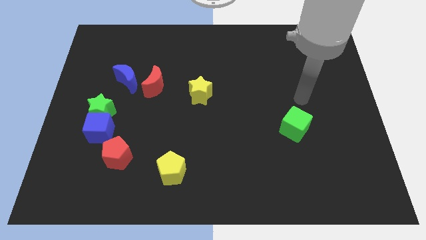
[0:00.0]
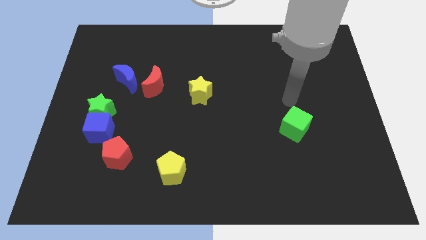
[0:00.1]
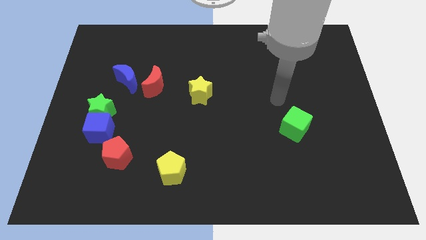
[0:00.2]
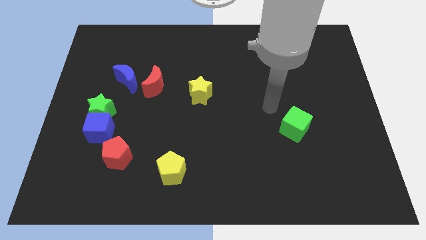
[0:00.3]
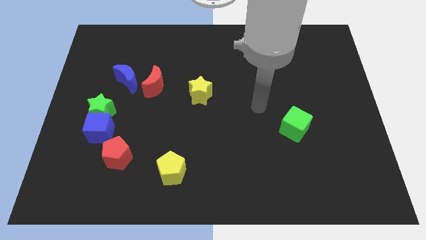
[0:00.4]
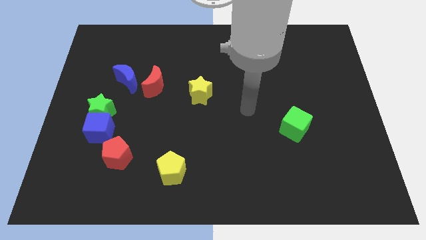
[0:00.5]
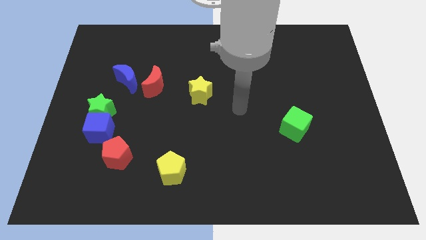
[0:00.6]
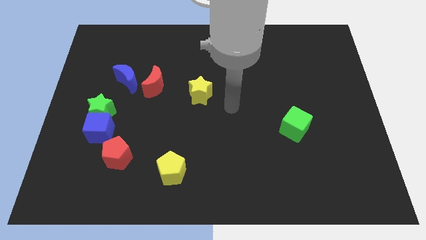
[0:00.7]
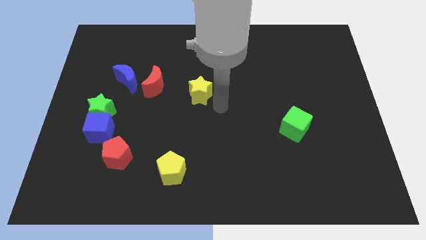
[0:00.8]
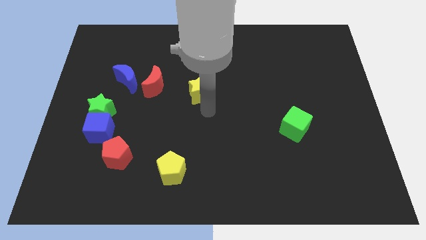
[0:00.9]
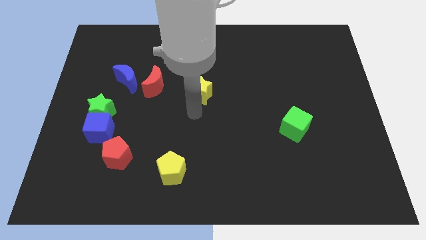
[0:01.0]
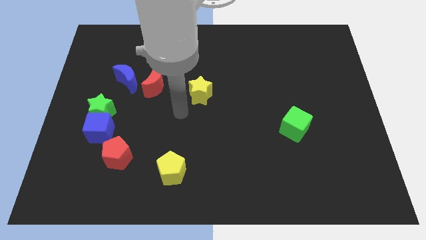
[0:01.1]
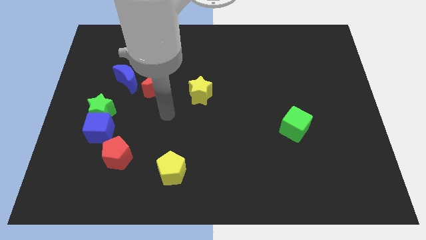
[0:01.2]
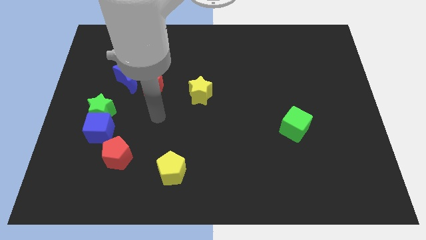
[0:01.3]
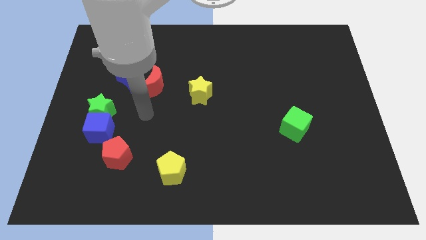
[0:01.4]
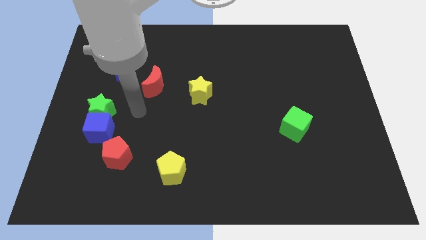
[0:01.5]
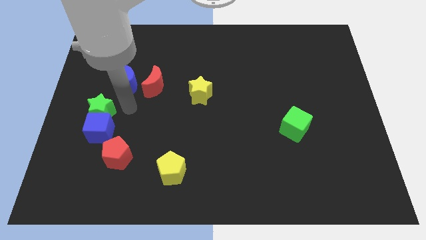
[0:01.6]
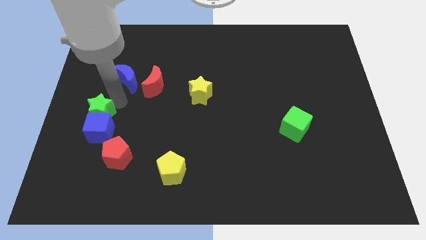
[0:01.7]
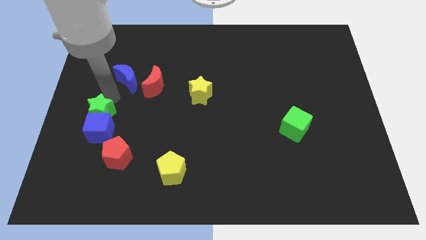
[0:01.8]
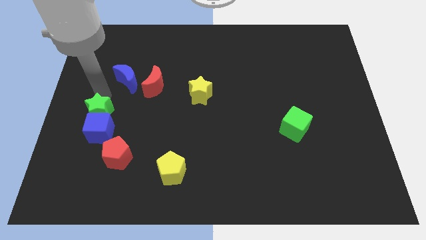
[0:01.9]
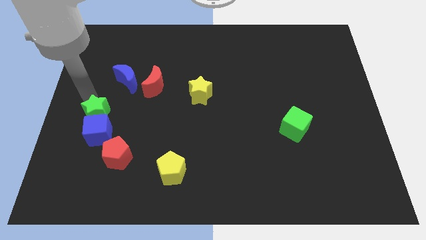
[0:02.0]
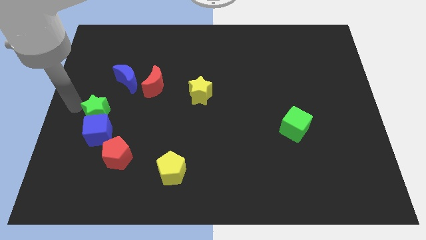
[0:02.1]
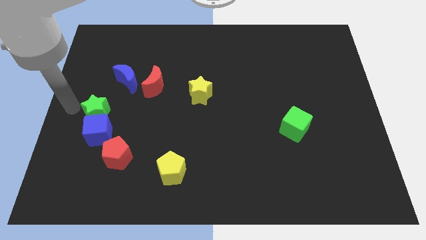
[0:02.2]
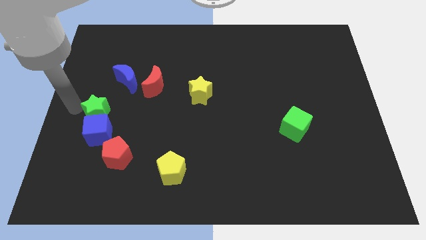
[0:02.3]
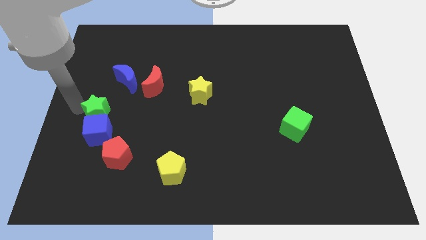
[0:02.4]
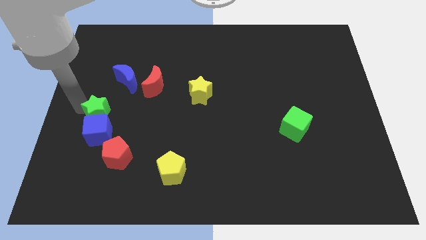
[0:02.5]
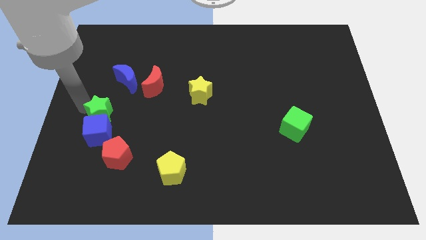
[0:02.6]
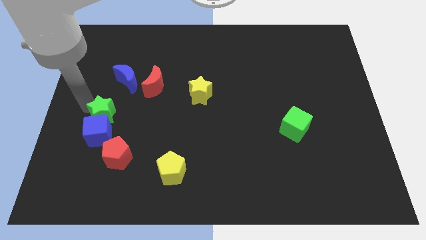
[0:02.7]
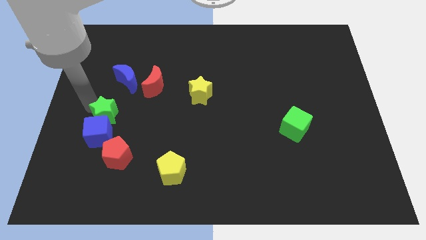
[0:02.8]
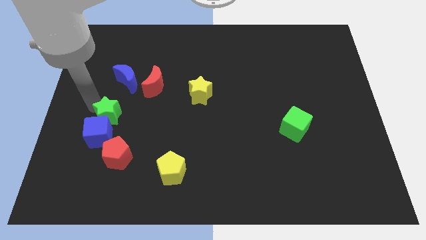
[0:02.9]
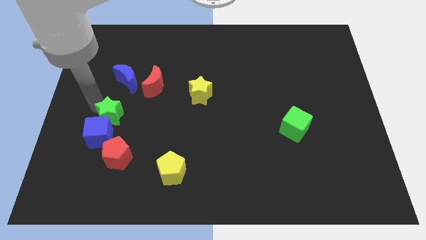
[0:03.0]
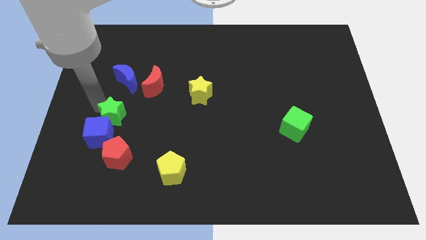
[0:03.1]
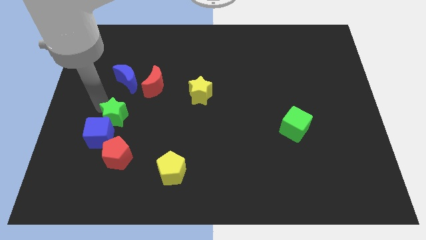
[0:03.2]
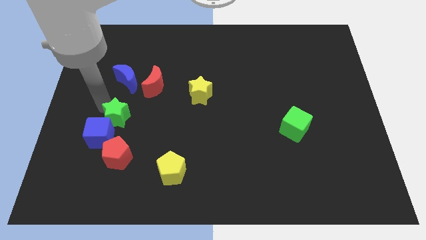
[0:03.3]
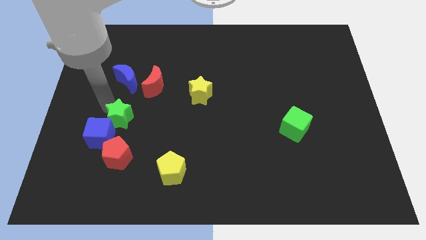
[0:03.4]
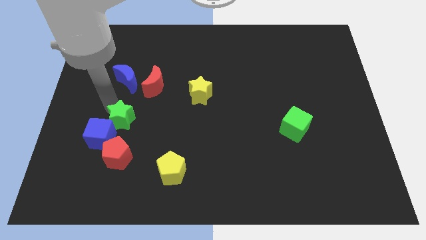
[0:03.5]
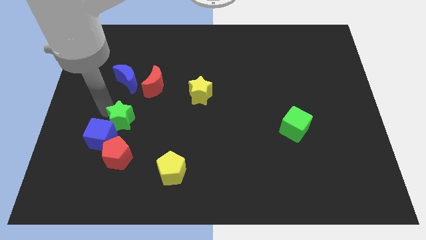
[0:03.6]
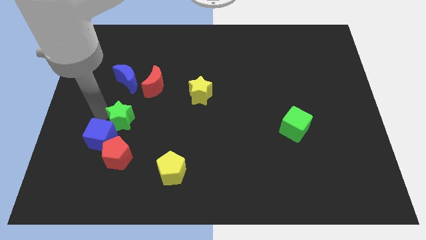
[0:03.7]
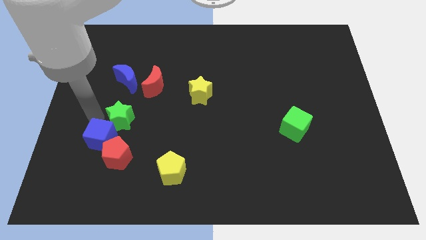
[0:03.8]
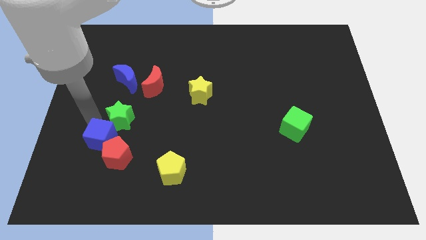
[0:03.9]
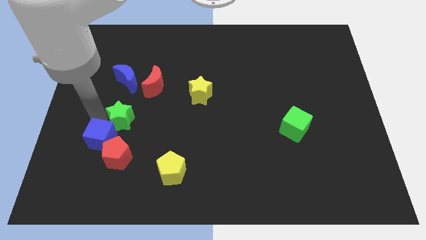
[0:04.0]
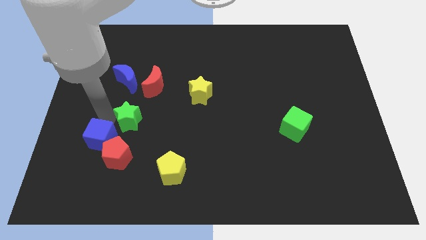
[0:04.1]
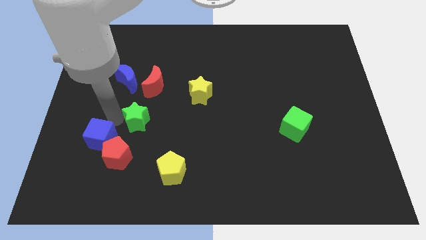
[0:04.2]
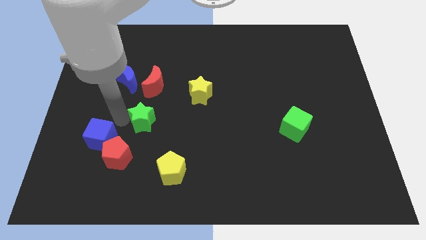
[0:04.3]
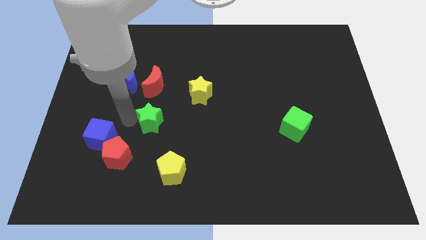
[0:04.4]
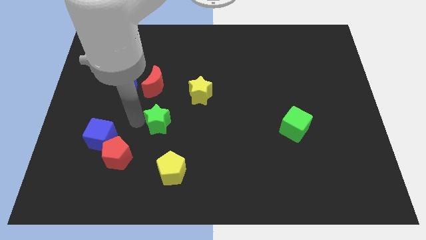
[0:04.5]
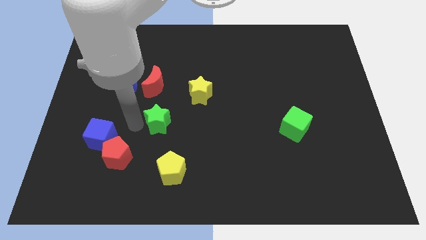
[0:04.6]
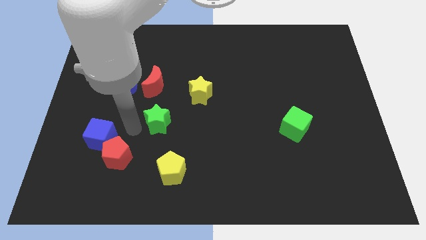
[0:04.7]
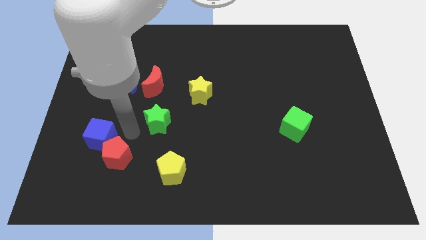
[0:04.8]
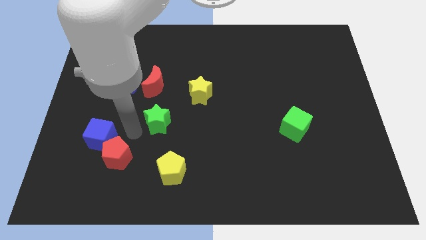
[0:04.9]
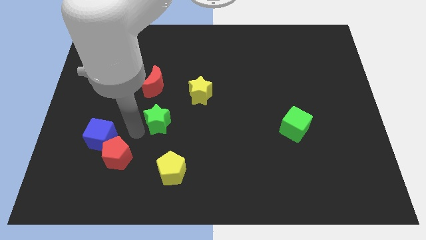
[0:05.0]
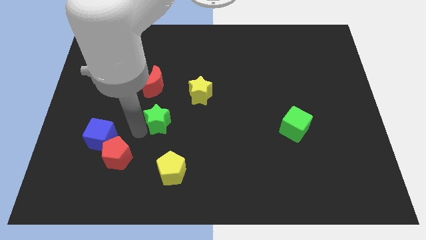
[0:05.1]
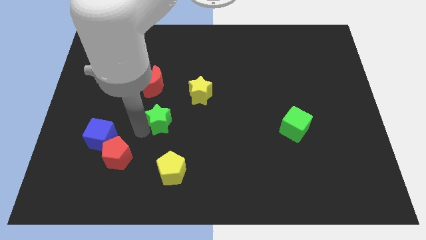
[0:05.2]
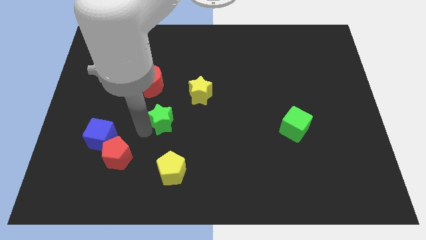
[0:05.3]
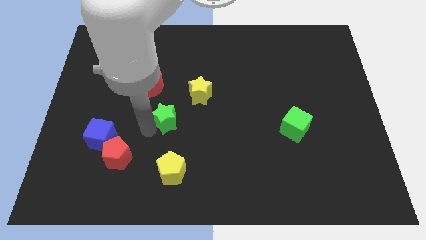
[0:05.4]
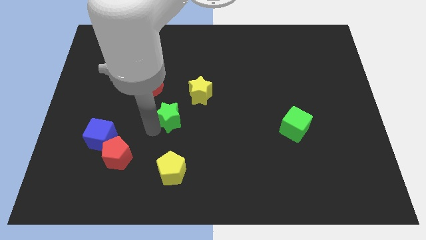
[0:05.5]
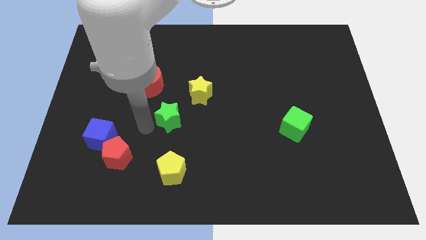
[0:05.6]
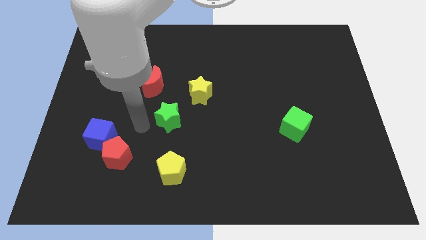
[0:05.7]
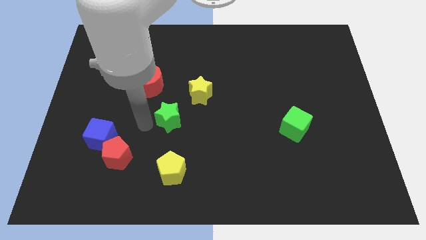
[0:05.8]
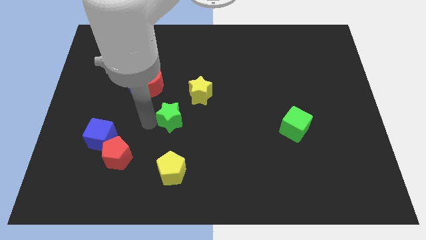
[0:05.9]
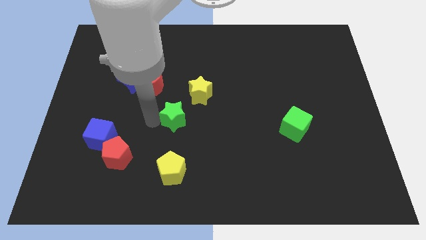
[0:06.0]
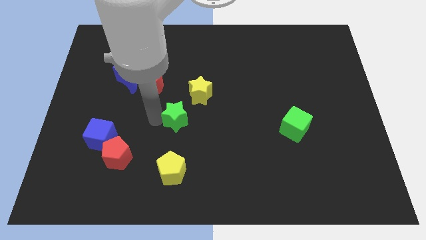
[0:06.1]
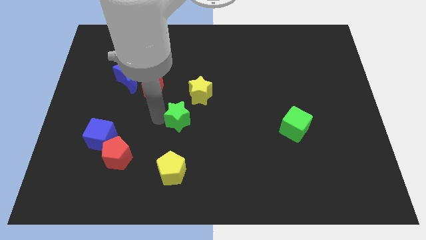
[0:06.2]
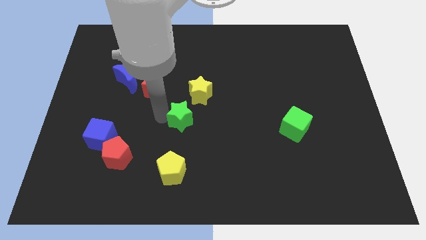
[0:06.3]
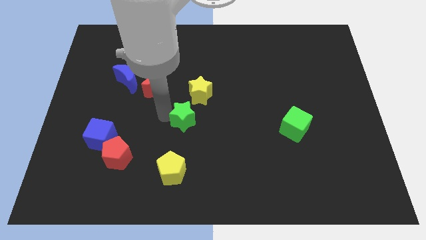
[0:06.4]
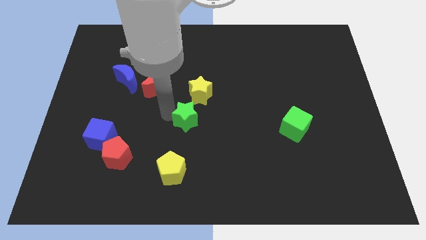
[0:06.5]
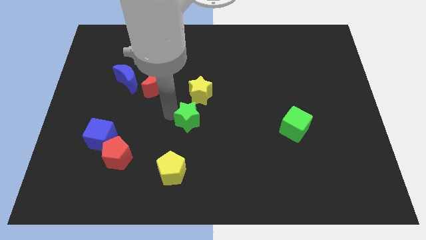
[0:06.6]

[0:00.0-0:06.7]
move the green star right

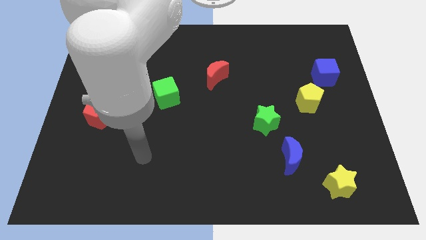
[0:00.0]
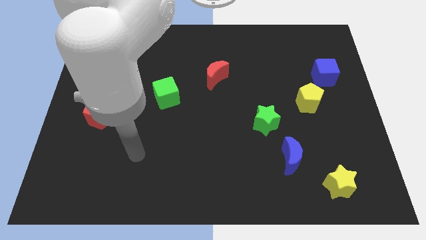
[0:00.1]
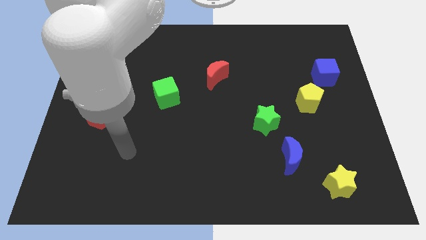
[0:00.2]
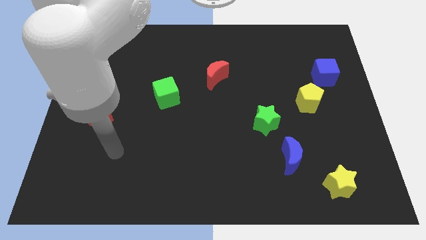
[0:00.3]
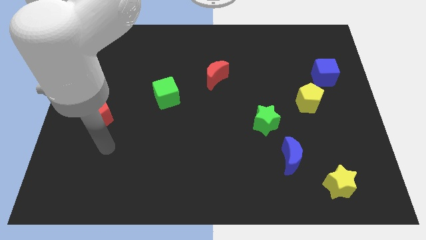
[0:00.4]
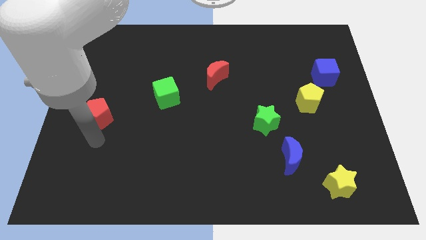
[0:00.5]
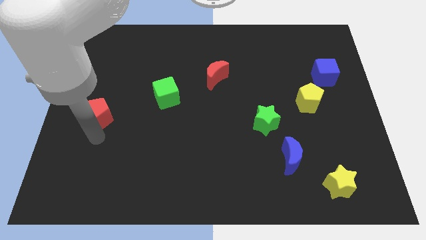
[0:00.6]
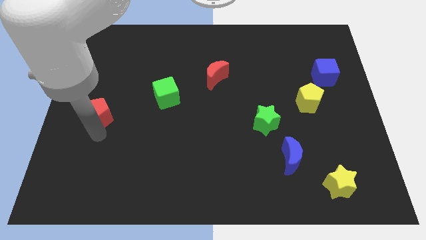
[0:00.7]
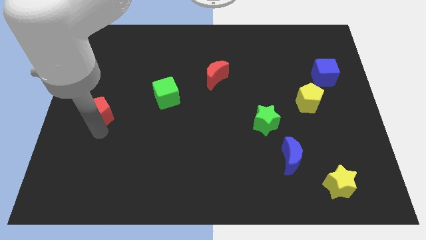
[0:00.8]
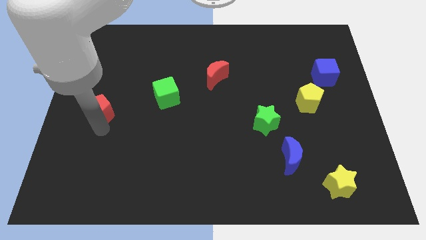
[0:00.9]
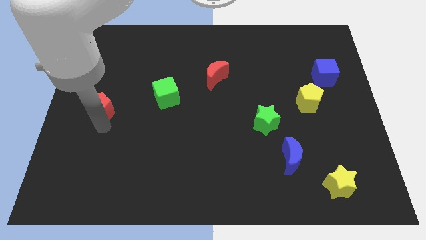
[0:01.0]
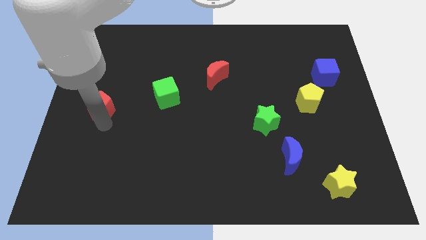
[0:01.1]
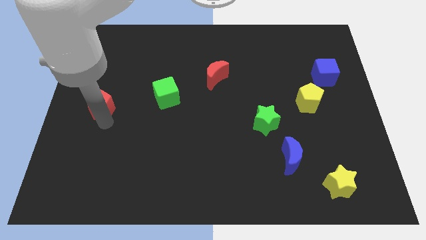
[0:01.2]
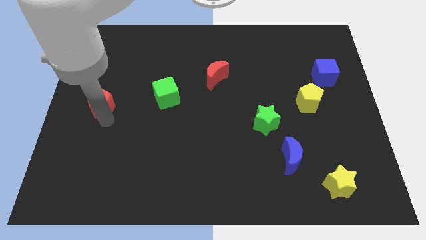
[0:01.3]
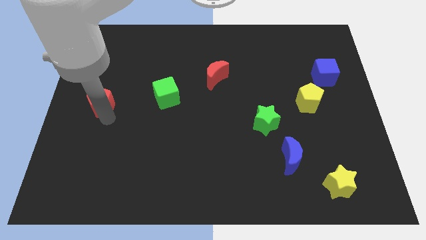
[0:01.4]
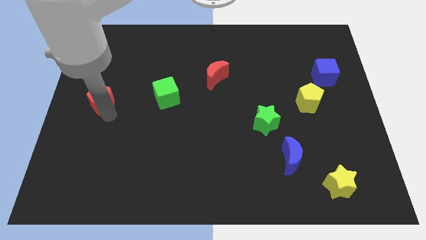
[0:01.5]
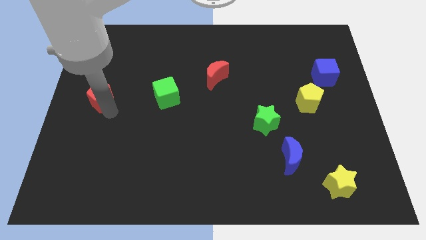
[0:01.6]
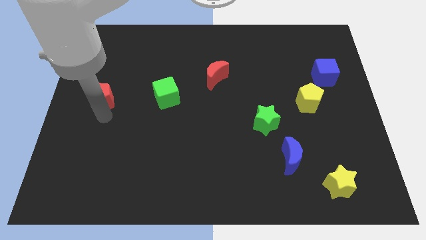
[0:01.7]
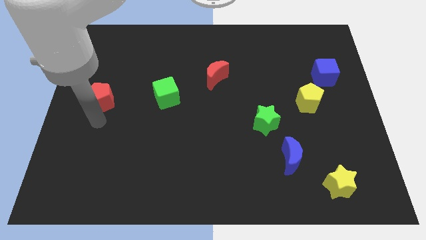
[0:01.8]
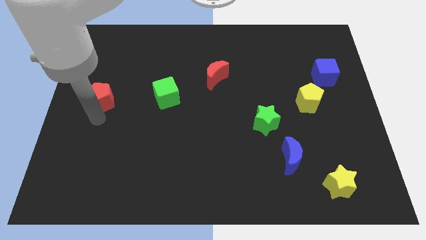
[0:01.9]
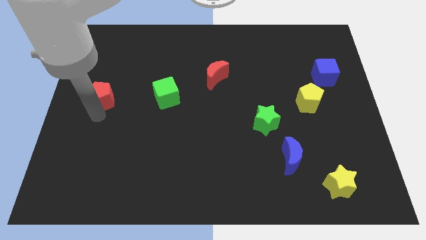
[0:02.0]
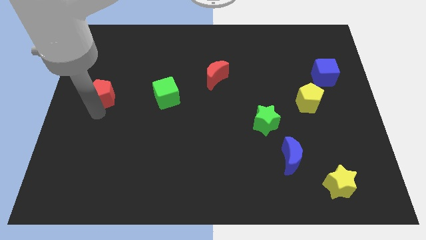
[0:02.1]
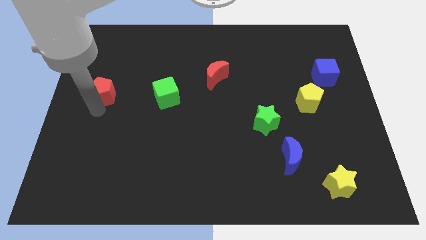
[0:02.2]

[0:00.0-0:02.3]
move the red pentagon upwards a bit
